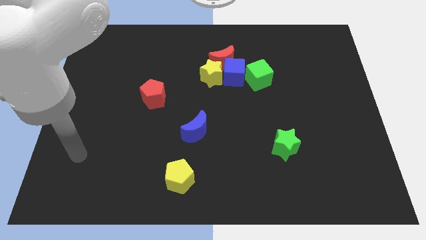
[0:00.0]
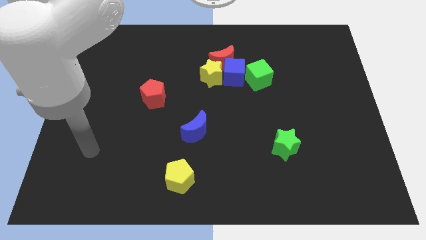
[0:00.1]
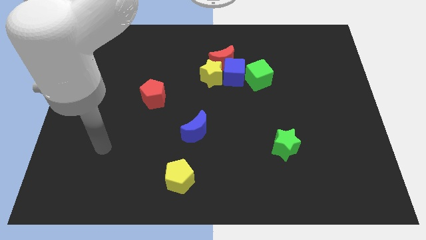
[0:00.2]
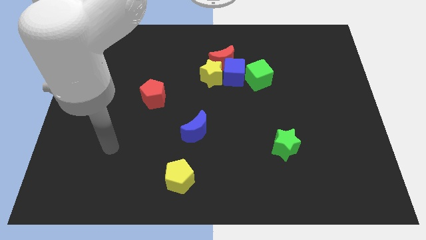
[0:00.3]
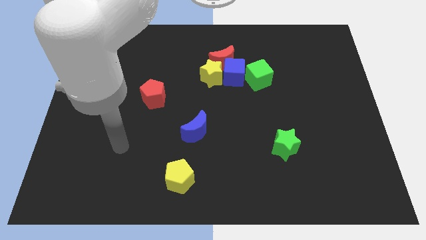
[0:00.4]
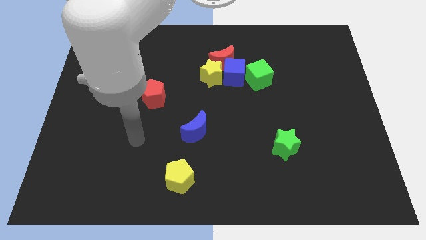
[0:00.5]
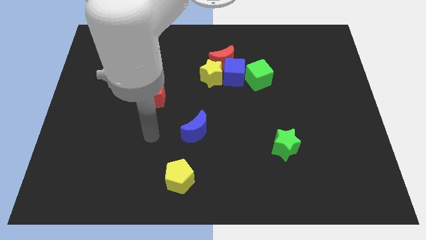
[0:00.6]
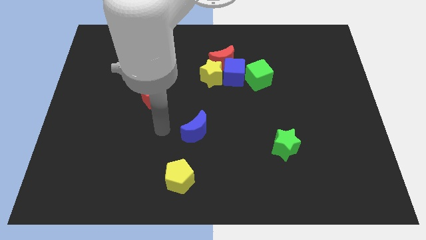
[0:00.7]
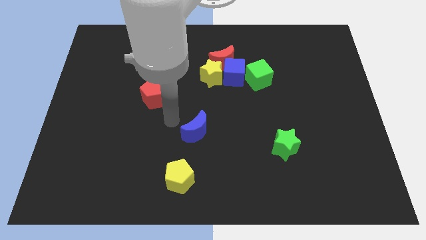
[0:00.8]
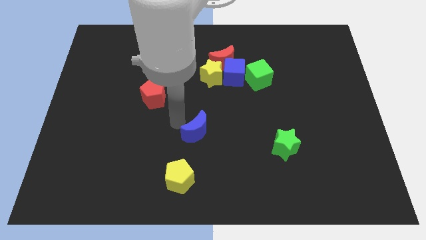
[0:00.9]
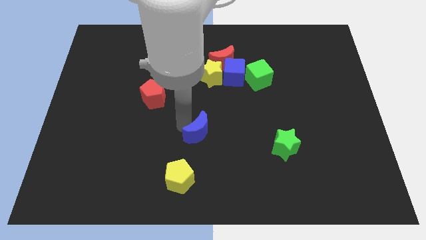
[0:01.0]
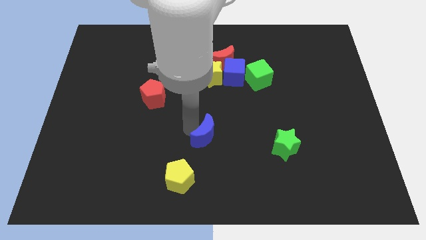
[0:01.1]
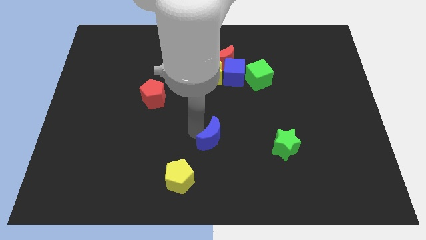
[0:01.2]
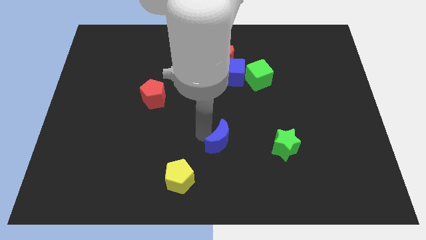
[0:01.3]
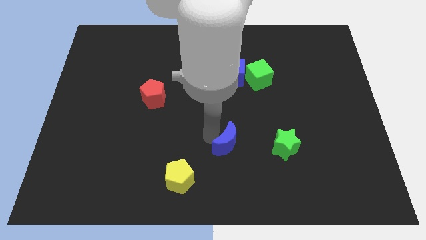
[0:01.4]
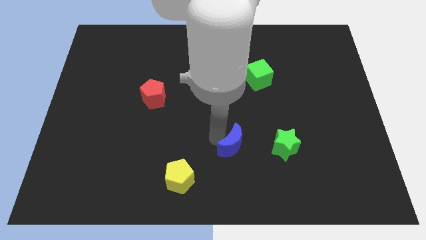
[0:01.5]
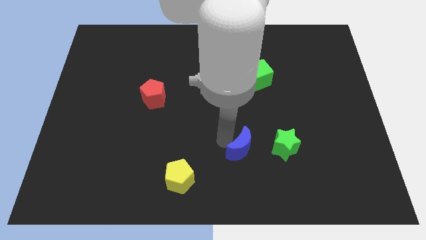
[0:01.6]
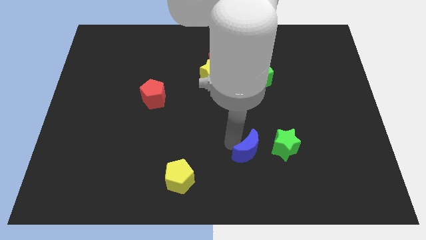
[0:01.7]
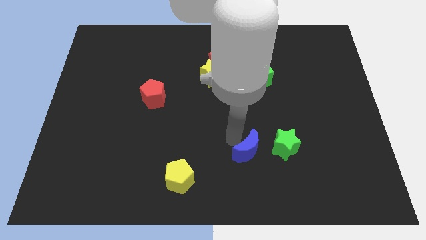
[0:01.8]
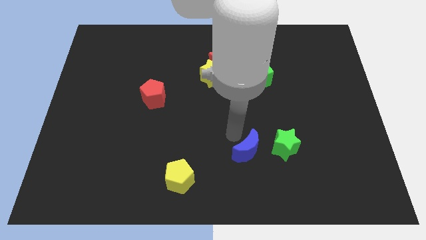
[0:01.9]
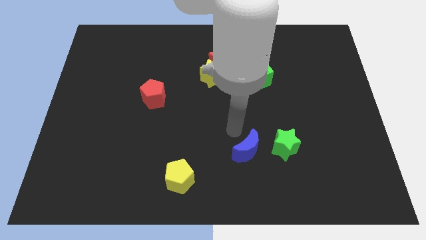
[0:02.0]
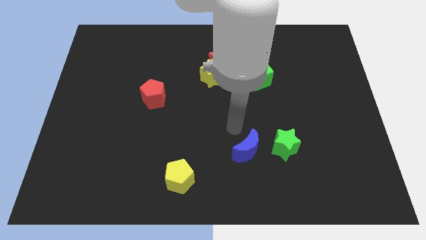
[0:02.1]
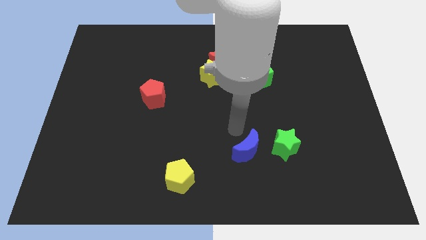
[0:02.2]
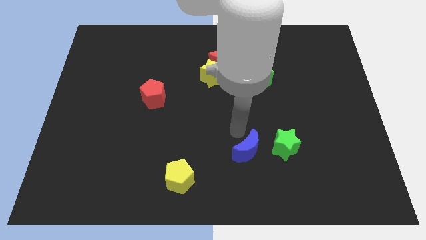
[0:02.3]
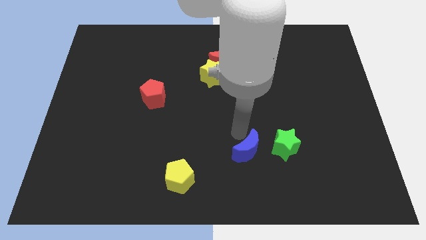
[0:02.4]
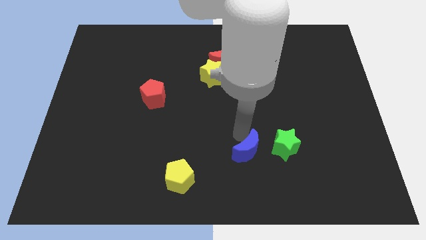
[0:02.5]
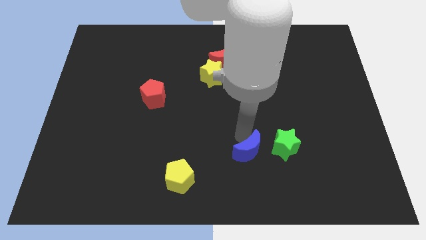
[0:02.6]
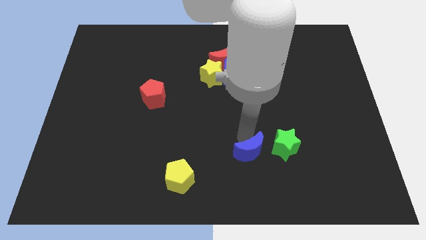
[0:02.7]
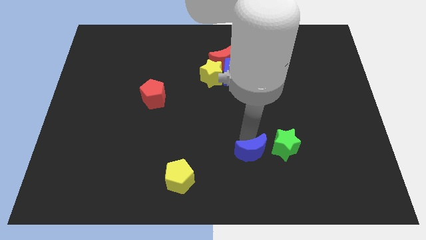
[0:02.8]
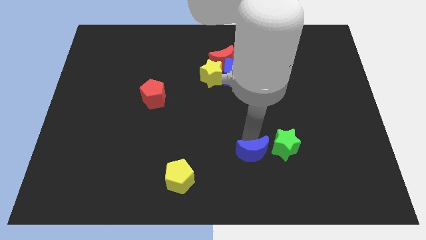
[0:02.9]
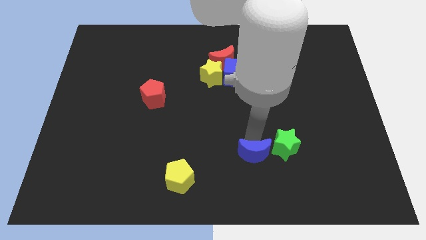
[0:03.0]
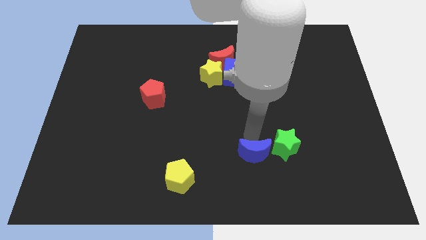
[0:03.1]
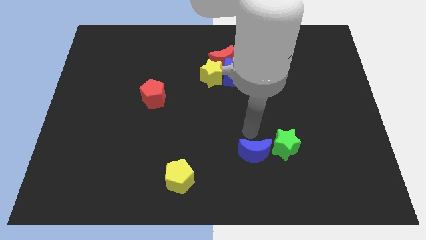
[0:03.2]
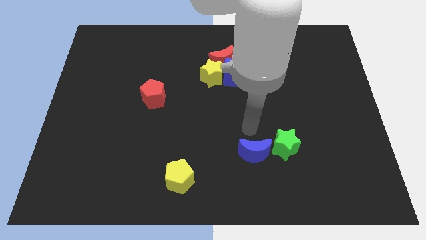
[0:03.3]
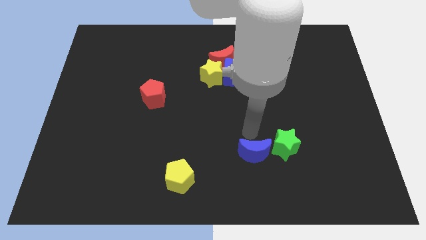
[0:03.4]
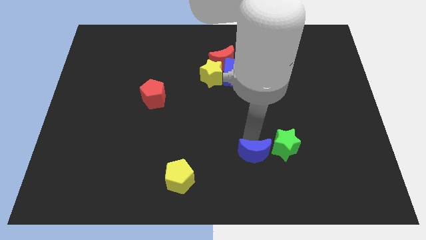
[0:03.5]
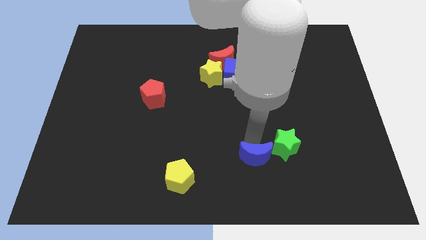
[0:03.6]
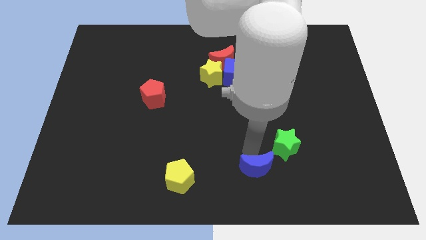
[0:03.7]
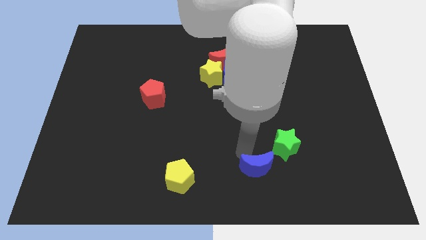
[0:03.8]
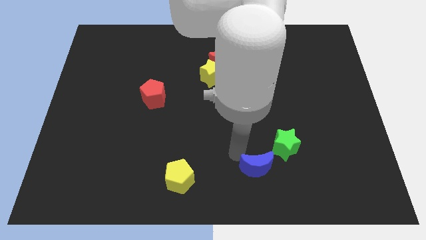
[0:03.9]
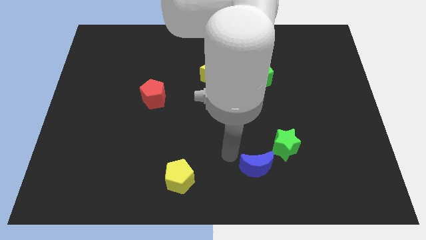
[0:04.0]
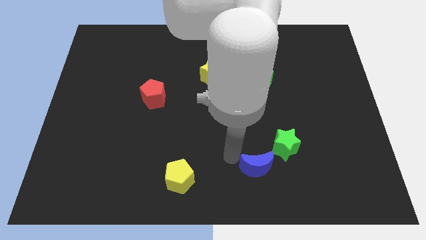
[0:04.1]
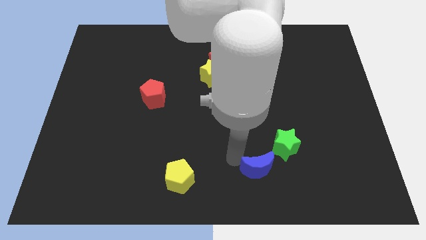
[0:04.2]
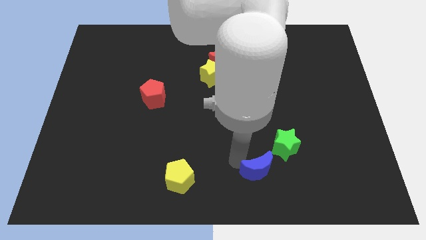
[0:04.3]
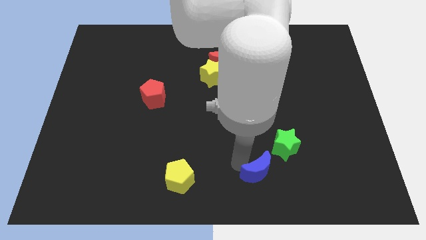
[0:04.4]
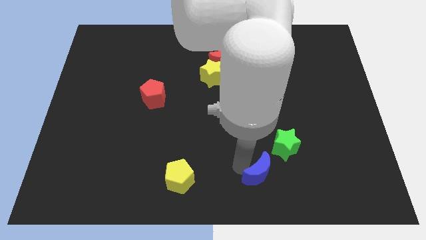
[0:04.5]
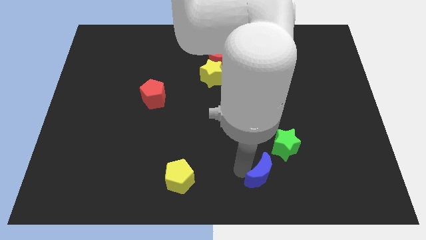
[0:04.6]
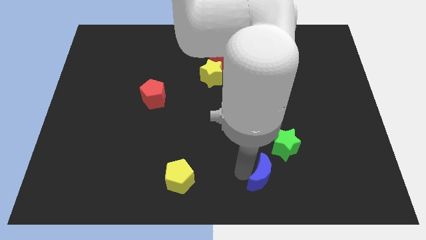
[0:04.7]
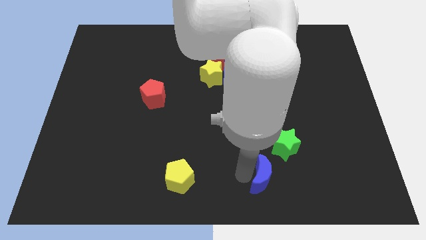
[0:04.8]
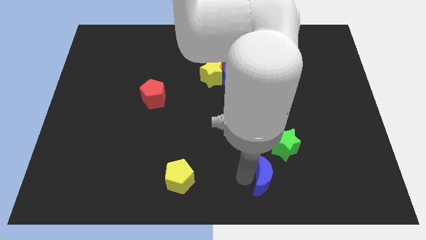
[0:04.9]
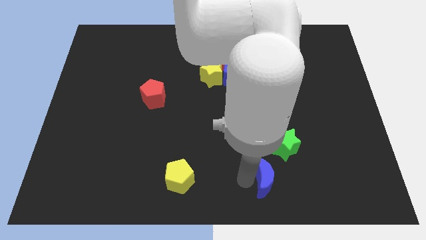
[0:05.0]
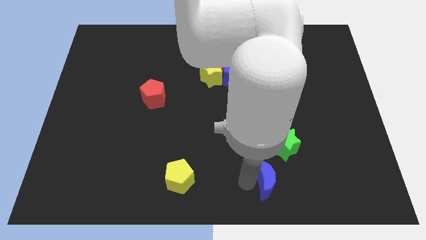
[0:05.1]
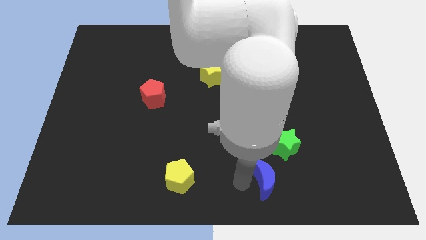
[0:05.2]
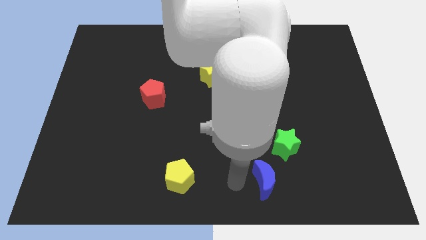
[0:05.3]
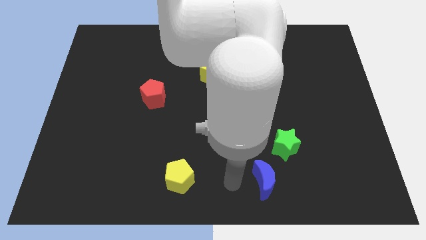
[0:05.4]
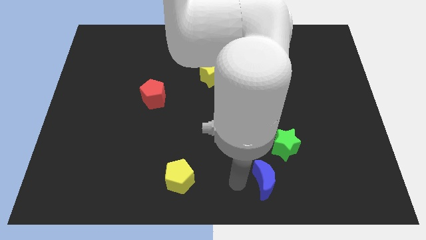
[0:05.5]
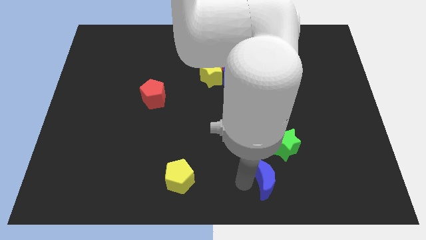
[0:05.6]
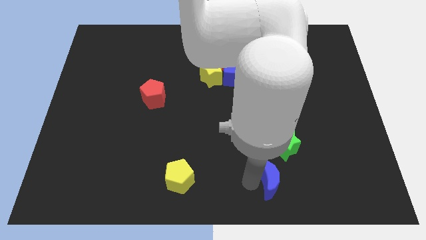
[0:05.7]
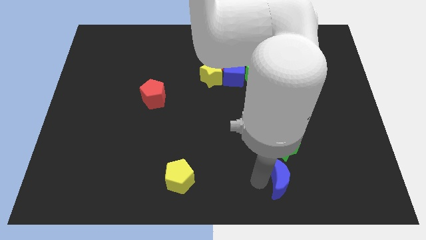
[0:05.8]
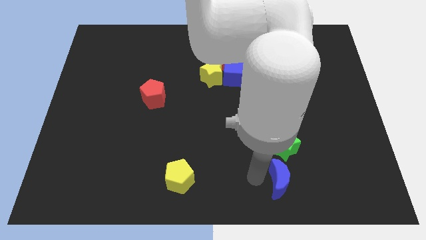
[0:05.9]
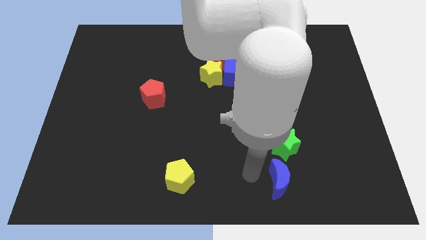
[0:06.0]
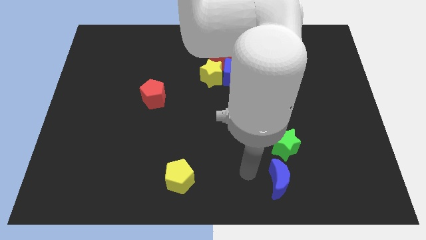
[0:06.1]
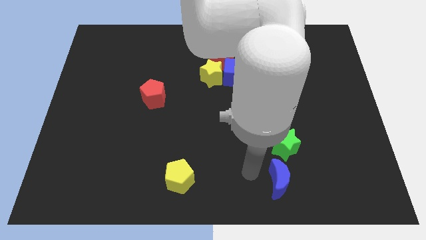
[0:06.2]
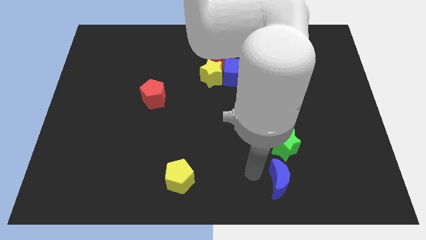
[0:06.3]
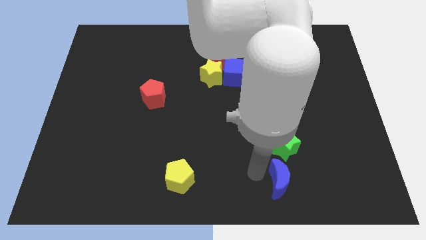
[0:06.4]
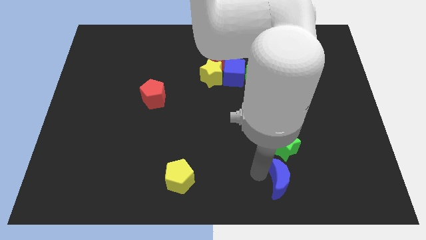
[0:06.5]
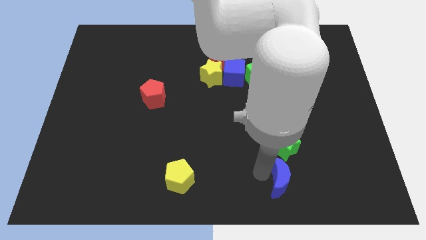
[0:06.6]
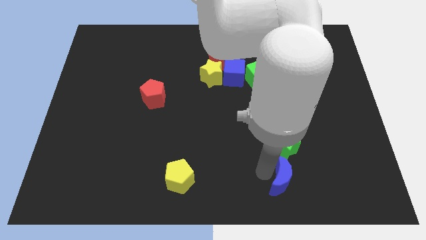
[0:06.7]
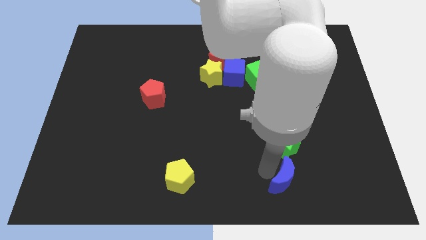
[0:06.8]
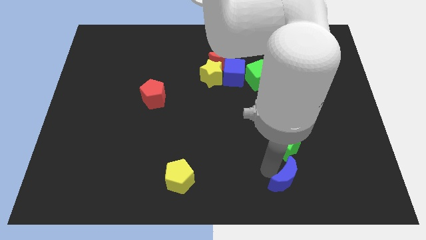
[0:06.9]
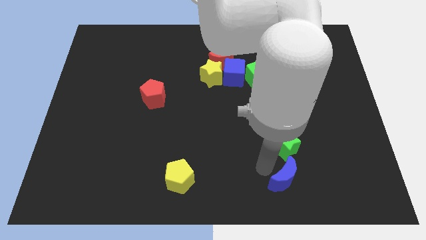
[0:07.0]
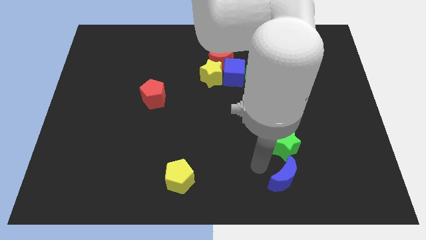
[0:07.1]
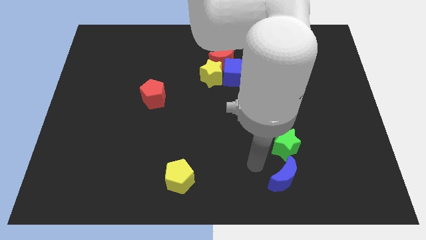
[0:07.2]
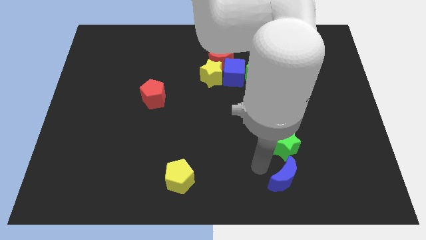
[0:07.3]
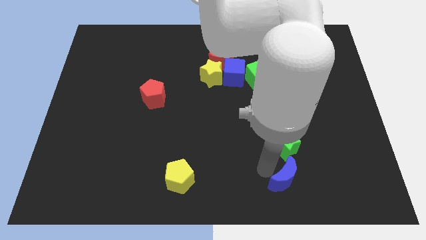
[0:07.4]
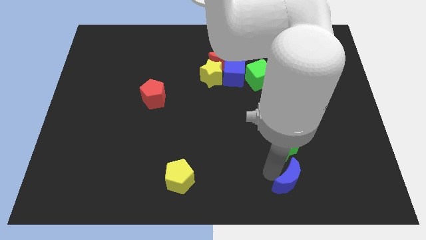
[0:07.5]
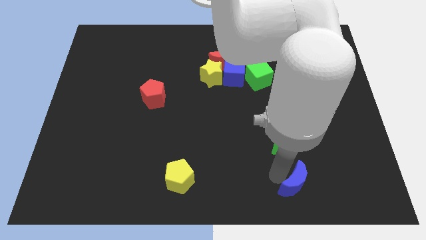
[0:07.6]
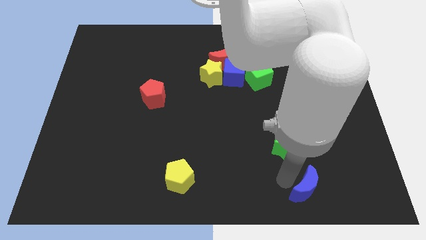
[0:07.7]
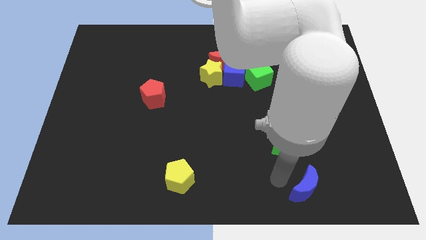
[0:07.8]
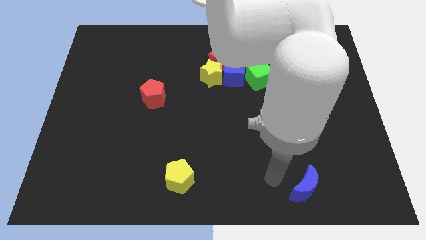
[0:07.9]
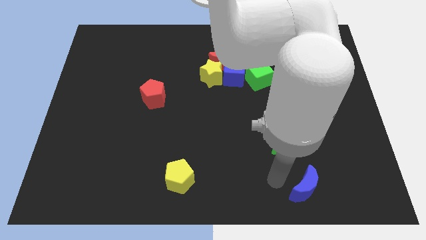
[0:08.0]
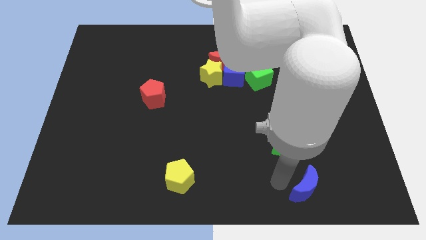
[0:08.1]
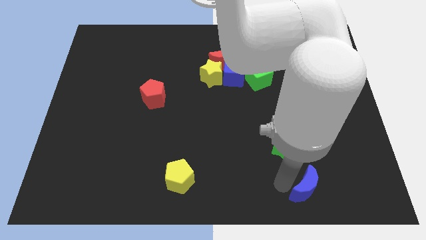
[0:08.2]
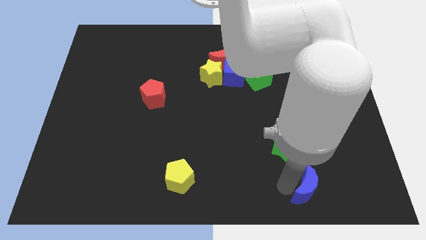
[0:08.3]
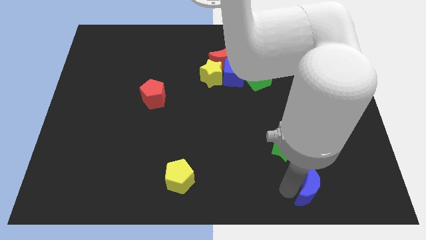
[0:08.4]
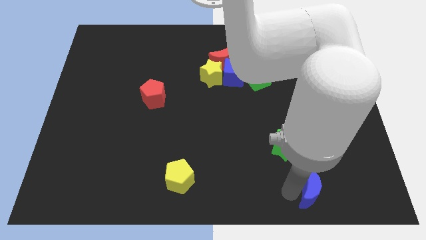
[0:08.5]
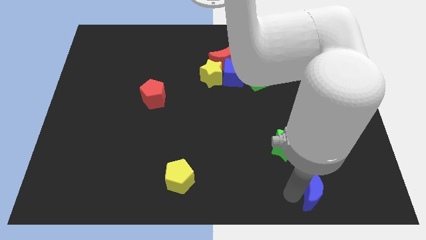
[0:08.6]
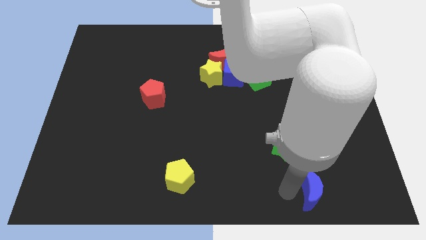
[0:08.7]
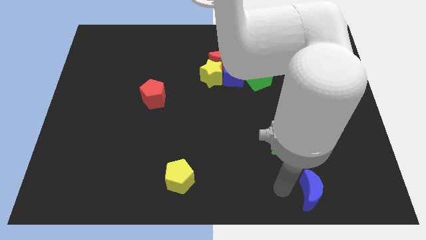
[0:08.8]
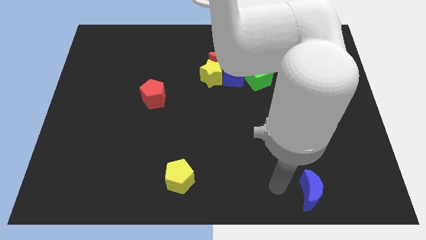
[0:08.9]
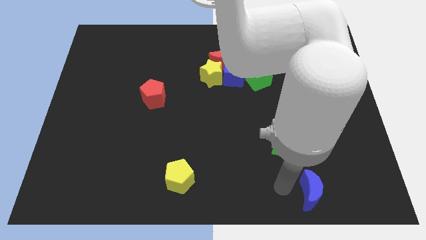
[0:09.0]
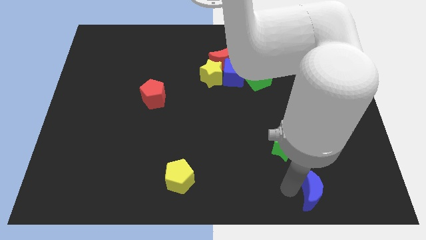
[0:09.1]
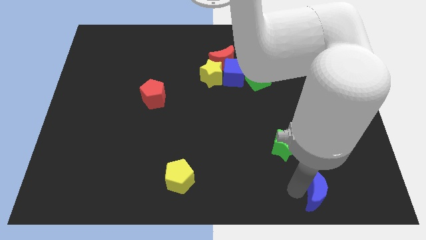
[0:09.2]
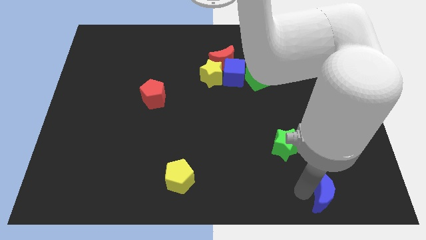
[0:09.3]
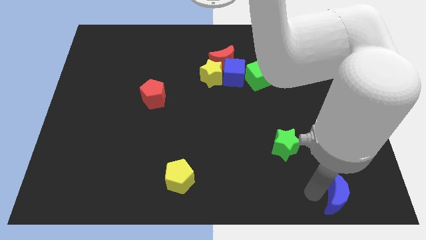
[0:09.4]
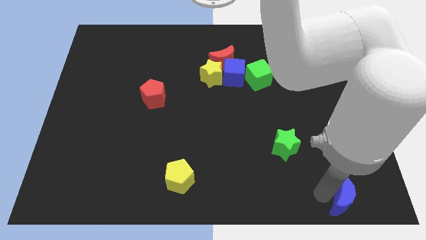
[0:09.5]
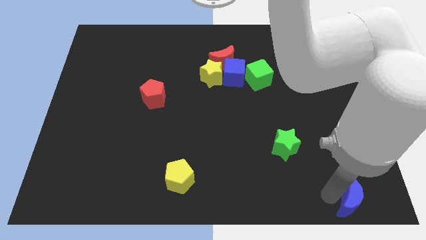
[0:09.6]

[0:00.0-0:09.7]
slide the blue moon to the bottom right
